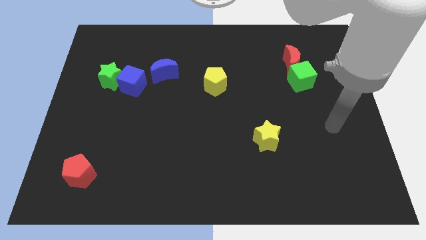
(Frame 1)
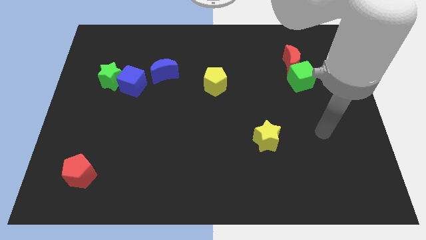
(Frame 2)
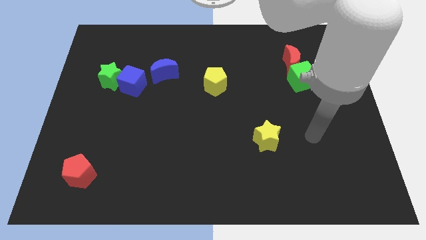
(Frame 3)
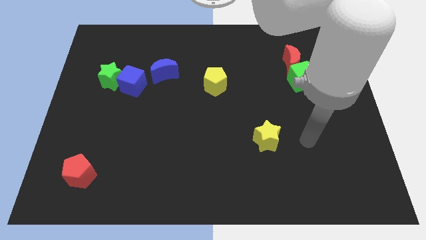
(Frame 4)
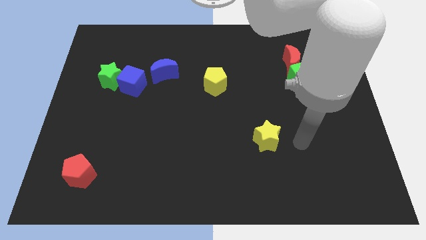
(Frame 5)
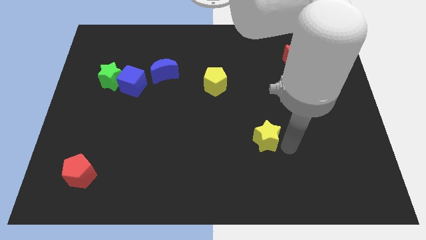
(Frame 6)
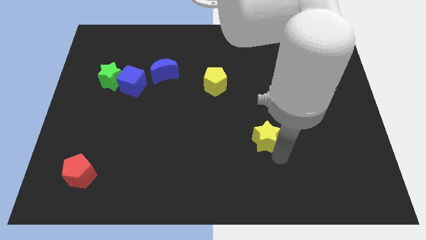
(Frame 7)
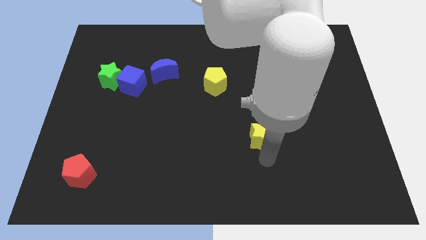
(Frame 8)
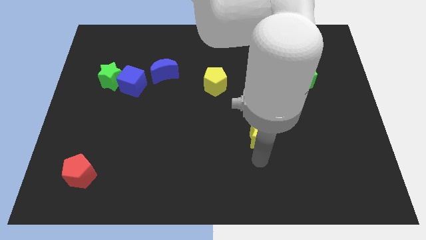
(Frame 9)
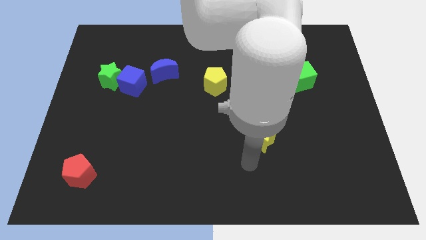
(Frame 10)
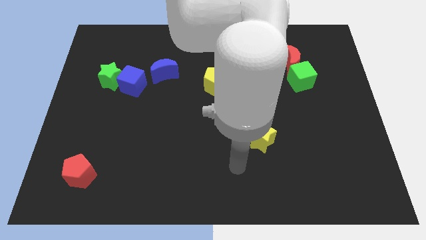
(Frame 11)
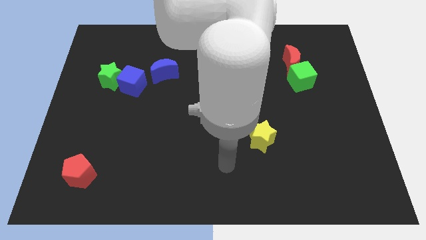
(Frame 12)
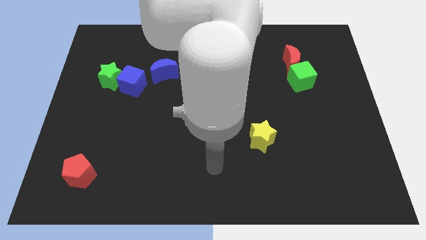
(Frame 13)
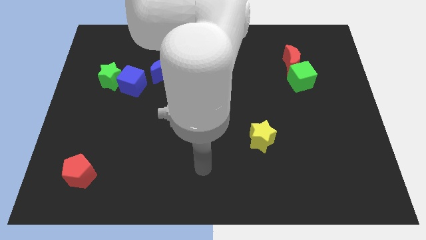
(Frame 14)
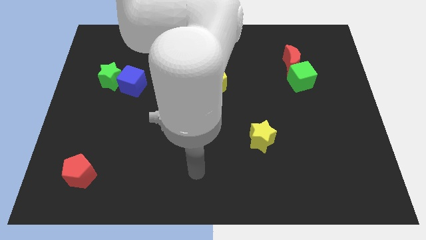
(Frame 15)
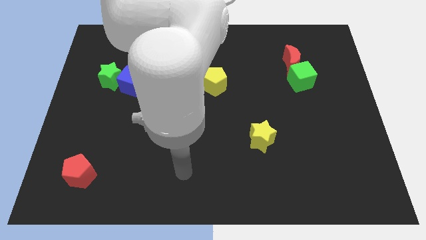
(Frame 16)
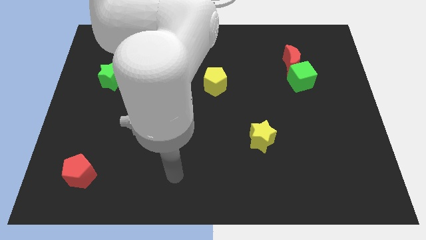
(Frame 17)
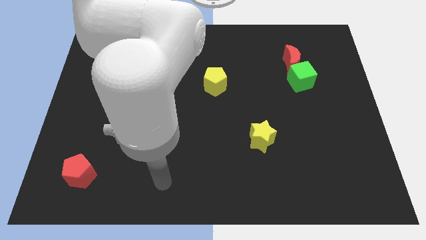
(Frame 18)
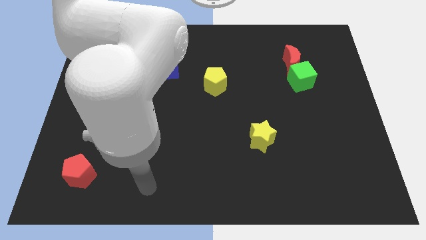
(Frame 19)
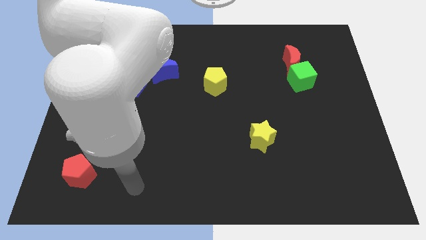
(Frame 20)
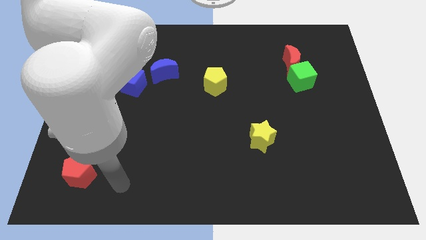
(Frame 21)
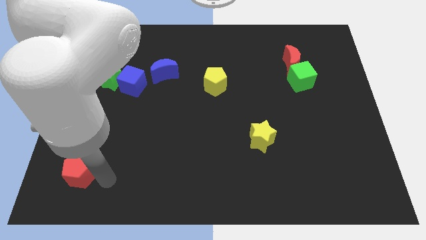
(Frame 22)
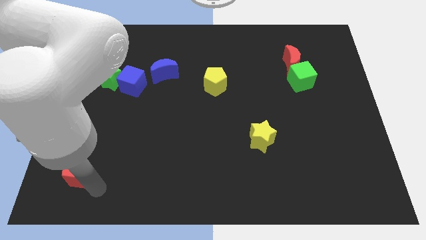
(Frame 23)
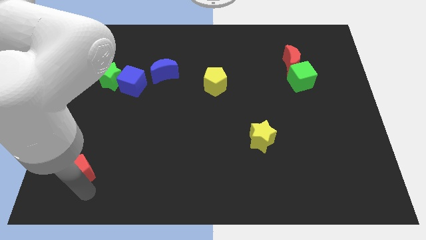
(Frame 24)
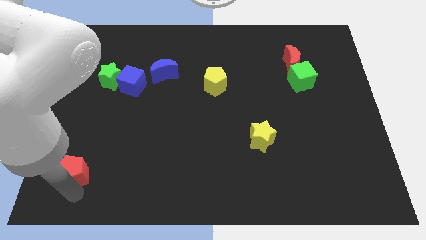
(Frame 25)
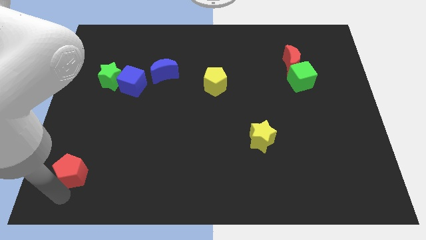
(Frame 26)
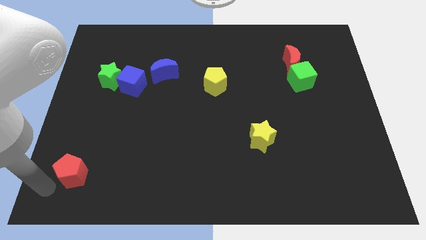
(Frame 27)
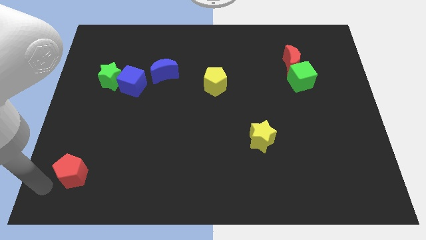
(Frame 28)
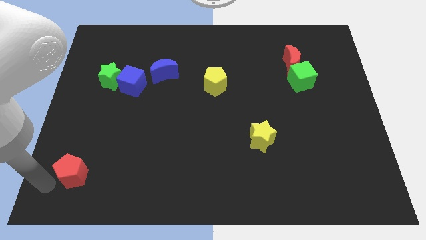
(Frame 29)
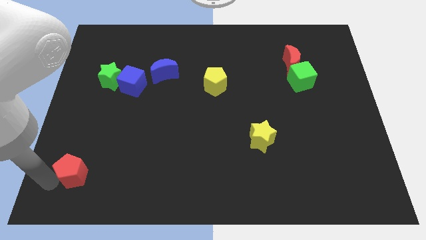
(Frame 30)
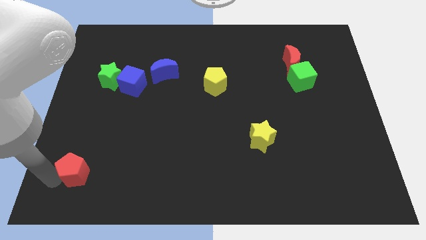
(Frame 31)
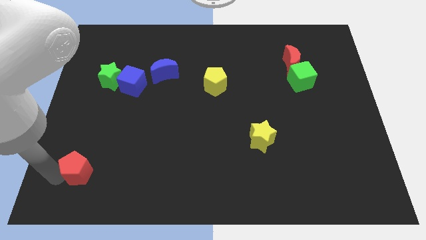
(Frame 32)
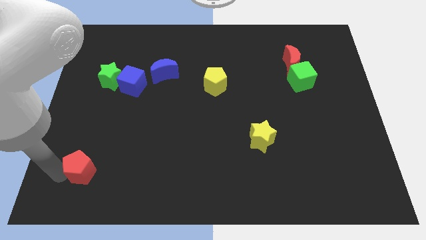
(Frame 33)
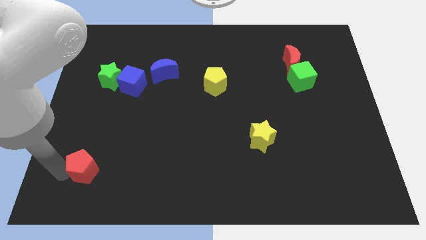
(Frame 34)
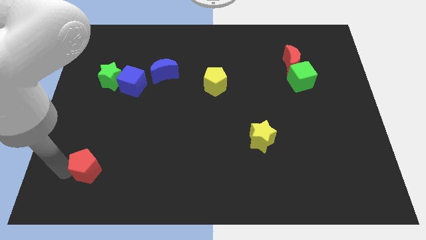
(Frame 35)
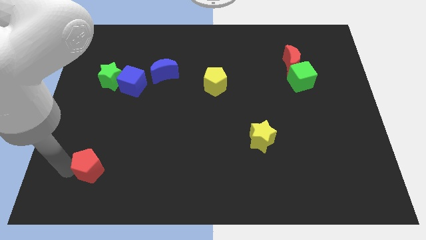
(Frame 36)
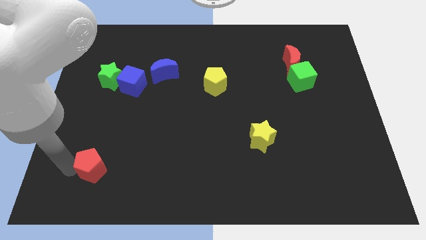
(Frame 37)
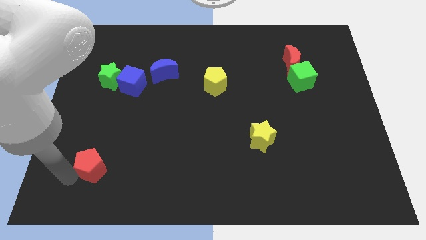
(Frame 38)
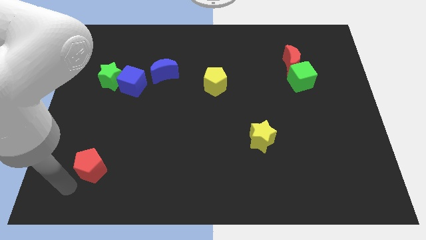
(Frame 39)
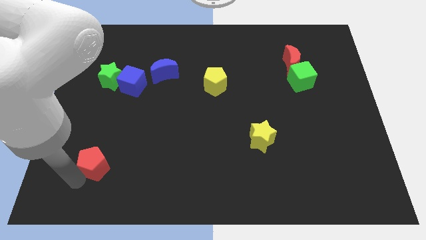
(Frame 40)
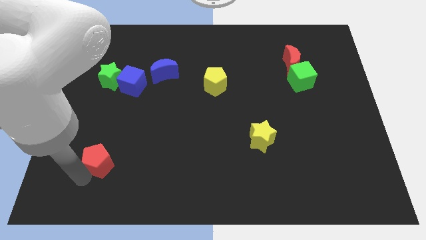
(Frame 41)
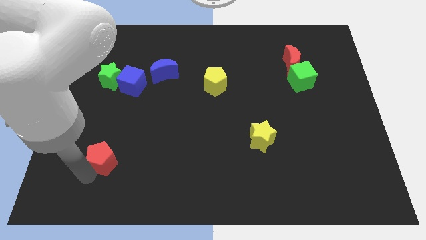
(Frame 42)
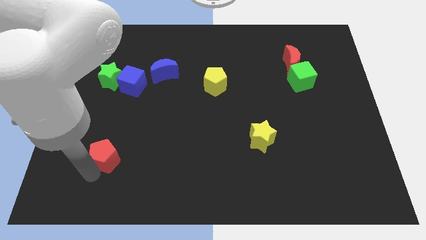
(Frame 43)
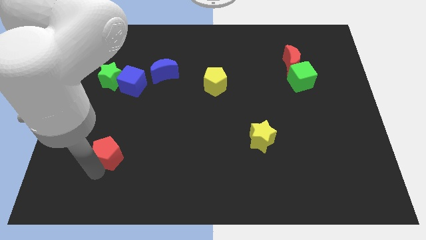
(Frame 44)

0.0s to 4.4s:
move the red pentagon upwards and then right a little

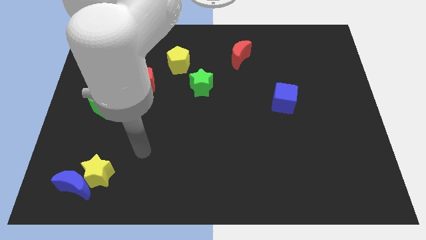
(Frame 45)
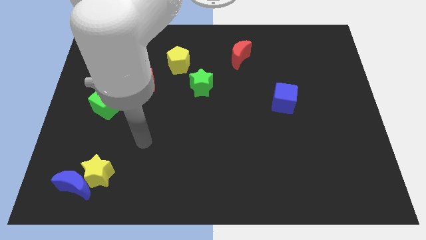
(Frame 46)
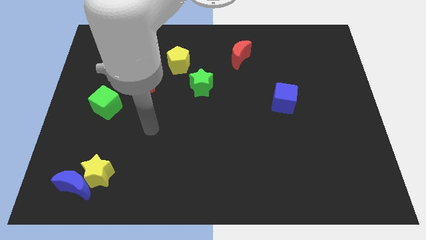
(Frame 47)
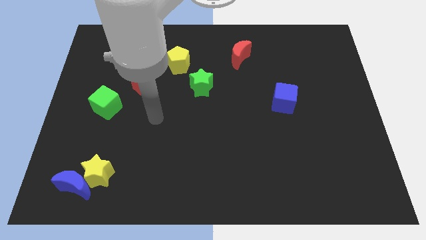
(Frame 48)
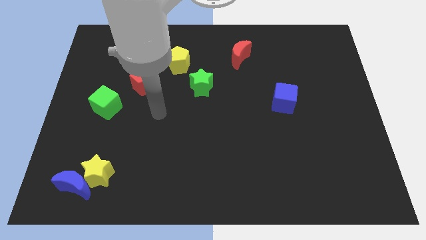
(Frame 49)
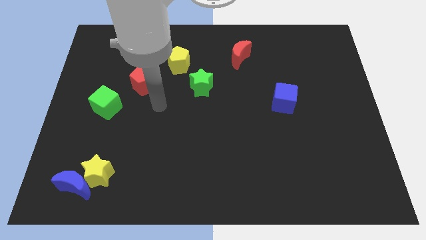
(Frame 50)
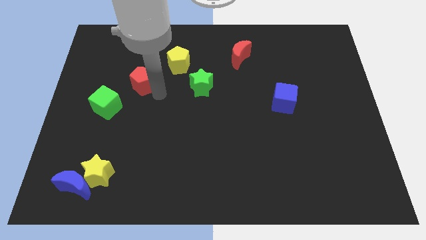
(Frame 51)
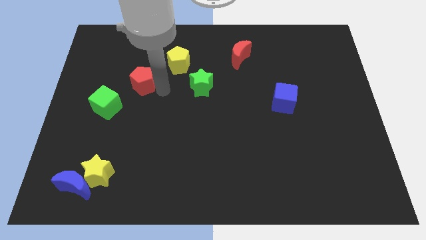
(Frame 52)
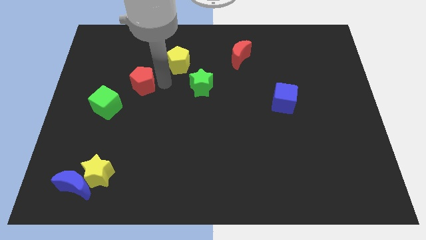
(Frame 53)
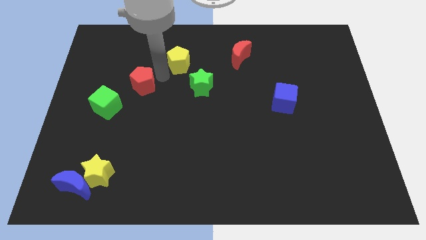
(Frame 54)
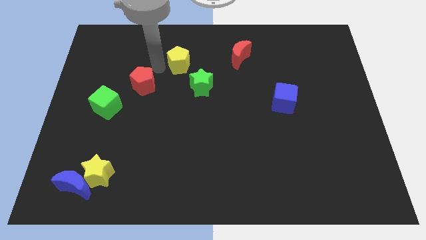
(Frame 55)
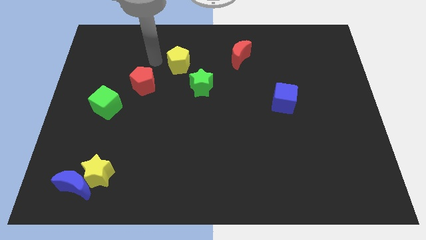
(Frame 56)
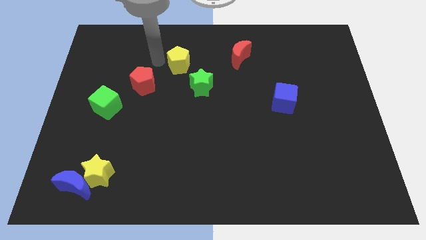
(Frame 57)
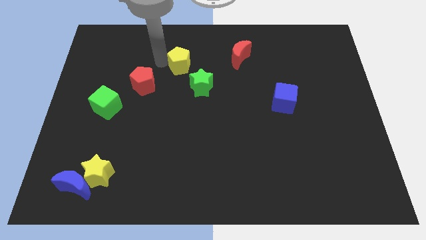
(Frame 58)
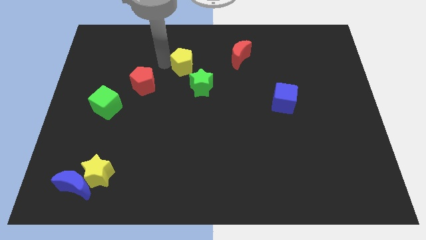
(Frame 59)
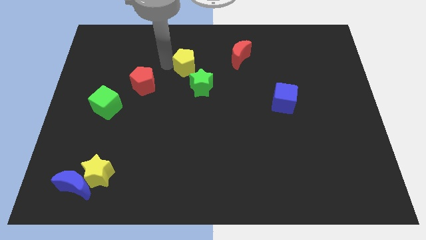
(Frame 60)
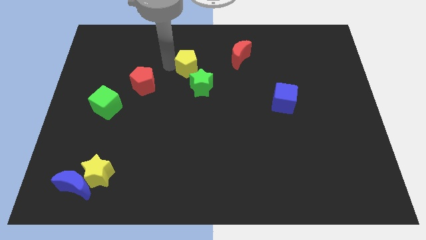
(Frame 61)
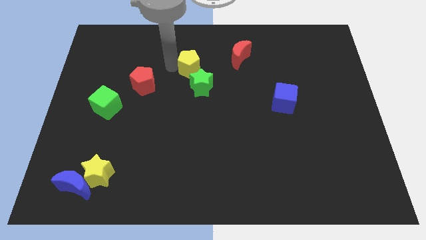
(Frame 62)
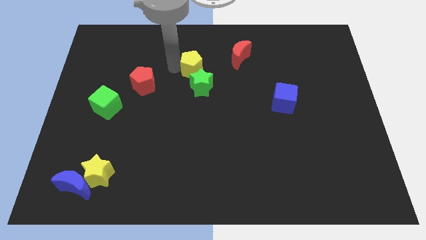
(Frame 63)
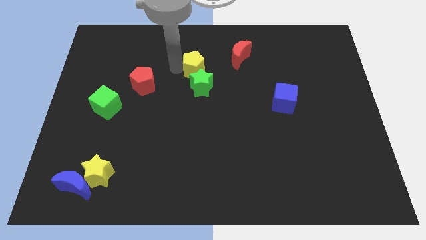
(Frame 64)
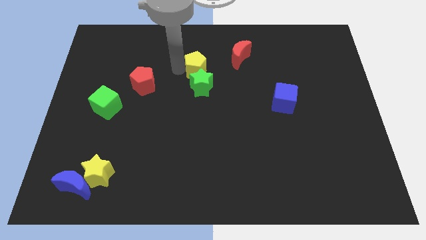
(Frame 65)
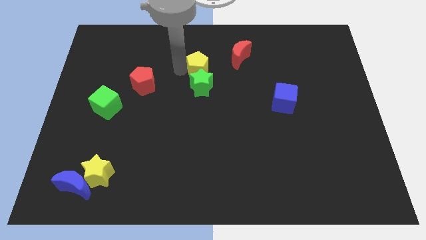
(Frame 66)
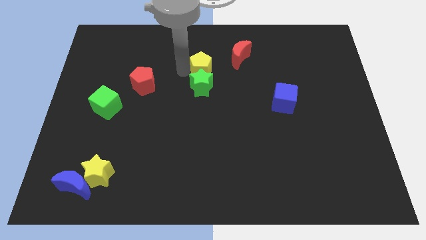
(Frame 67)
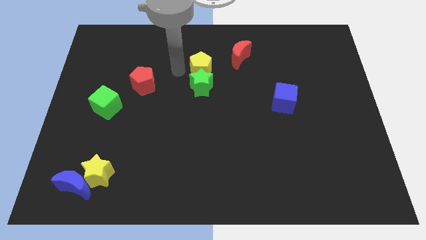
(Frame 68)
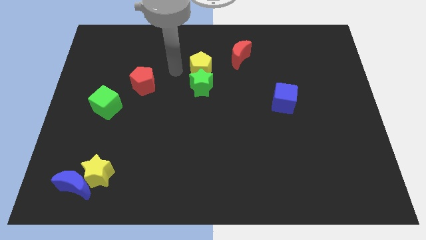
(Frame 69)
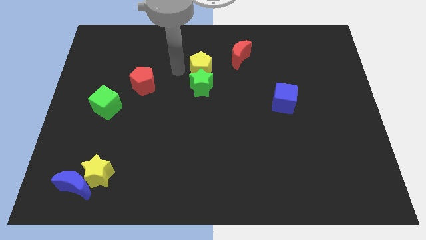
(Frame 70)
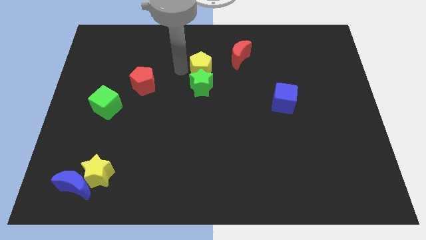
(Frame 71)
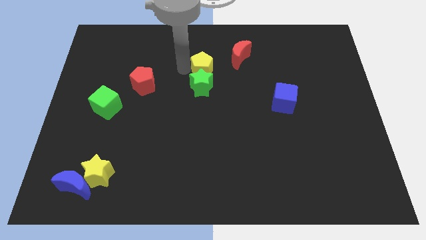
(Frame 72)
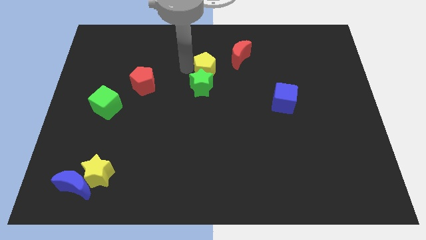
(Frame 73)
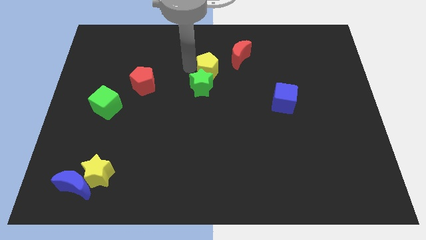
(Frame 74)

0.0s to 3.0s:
move the yellow pentagon to the right a bit

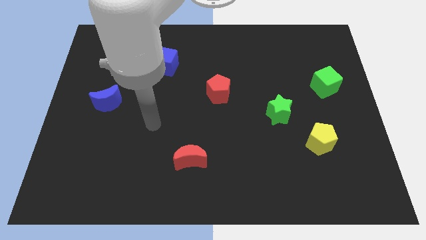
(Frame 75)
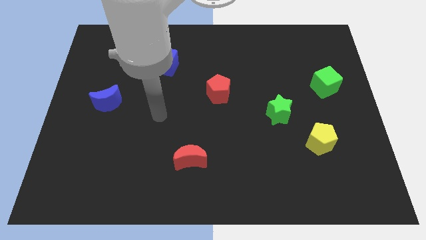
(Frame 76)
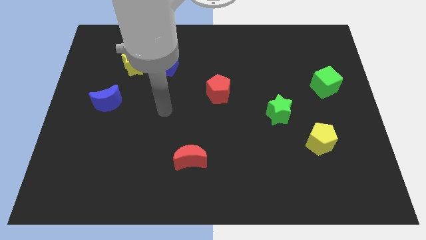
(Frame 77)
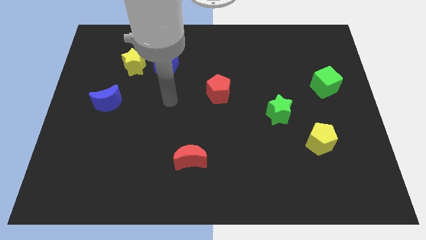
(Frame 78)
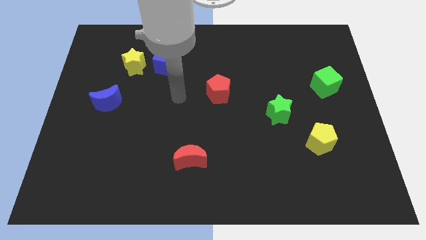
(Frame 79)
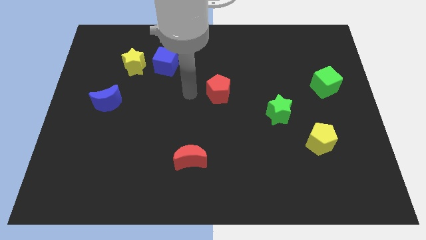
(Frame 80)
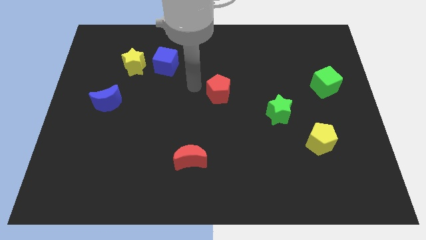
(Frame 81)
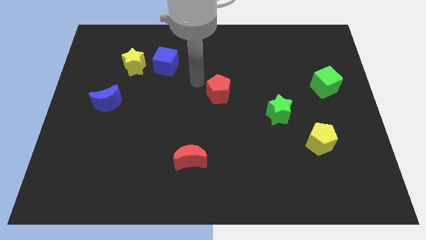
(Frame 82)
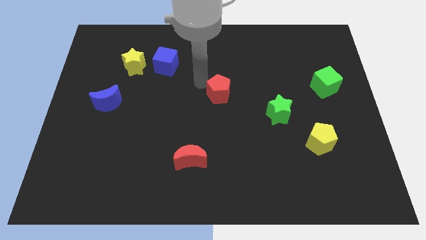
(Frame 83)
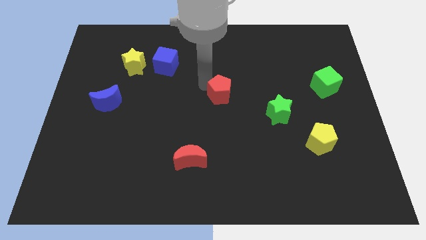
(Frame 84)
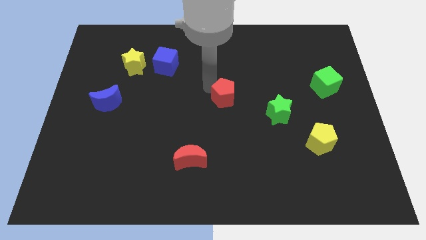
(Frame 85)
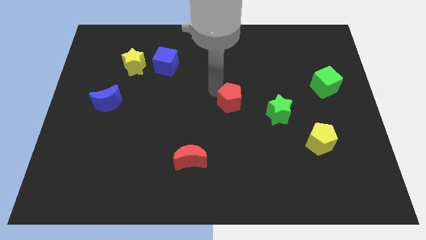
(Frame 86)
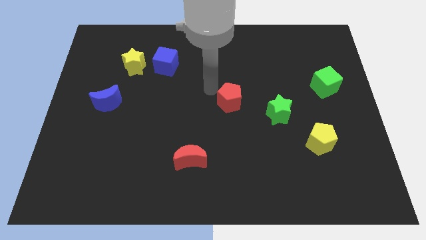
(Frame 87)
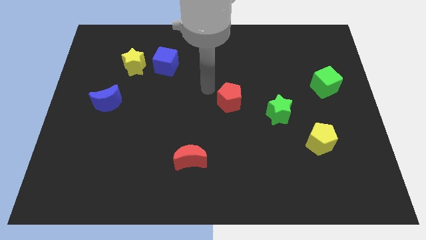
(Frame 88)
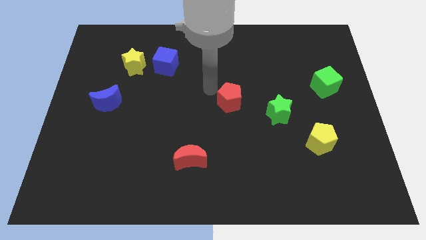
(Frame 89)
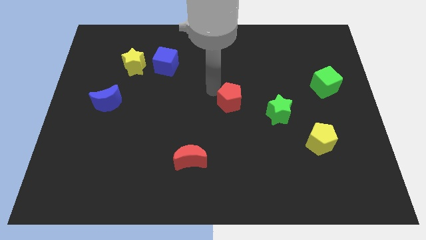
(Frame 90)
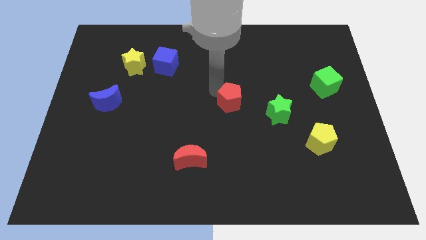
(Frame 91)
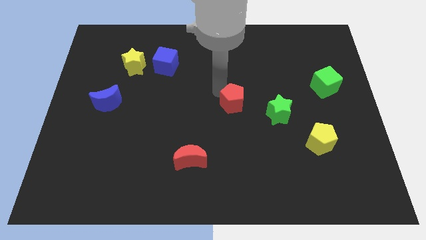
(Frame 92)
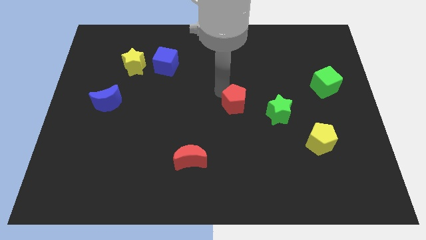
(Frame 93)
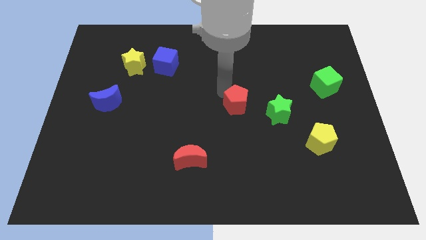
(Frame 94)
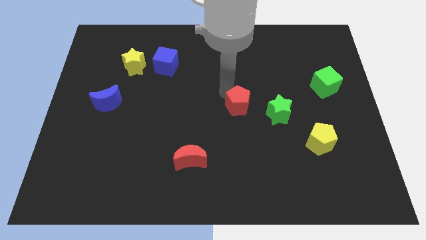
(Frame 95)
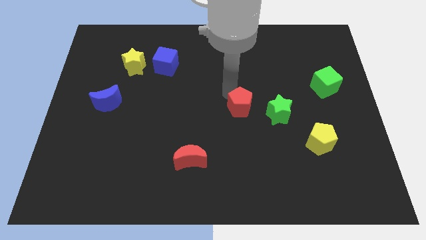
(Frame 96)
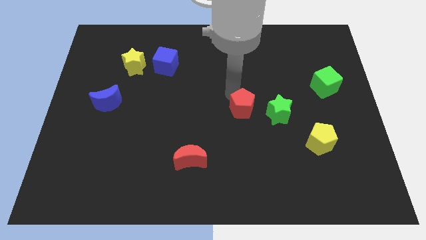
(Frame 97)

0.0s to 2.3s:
slightly slide the red pentagon downwards and to the right
